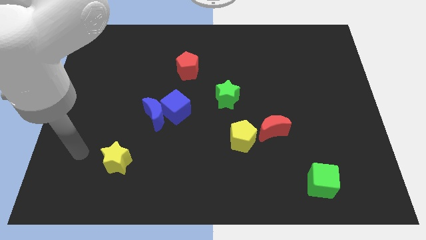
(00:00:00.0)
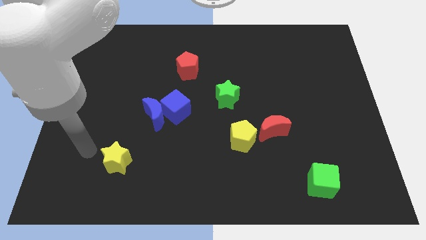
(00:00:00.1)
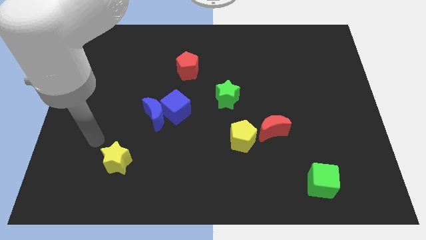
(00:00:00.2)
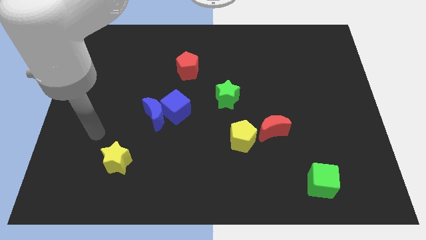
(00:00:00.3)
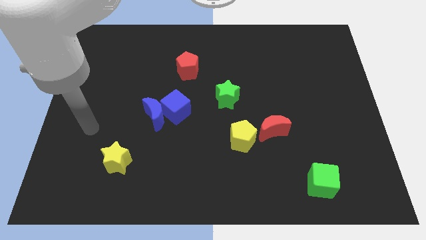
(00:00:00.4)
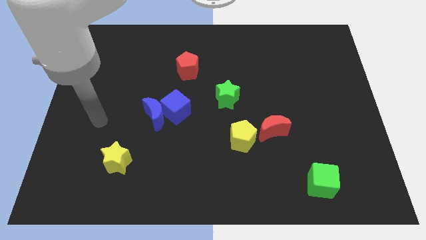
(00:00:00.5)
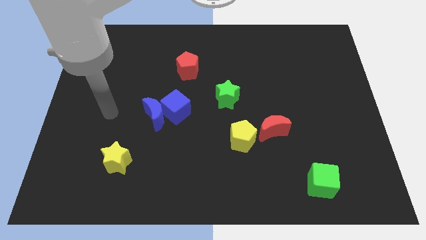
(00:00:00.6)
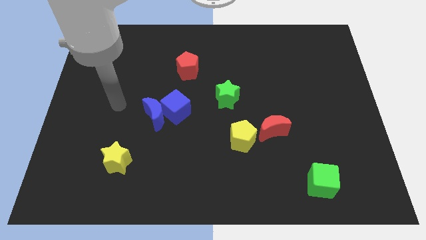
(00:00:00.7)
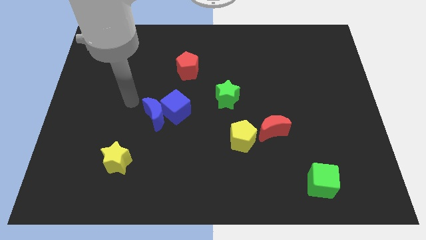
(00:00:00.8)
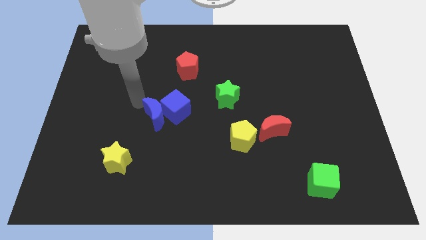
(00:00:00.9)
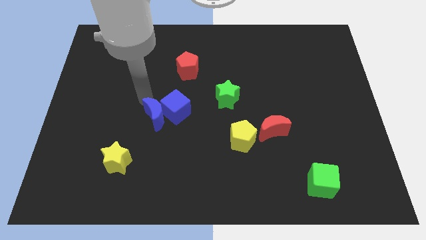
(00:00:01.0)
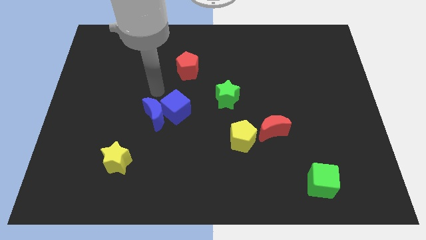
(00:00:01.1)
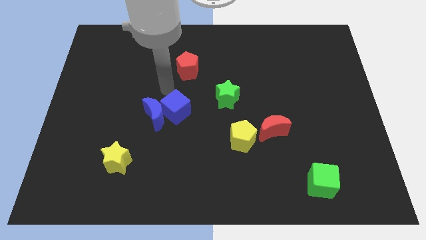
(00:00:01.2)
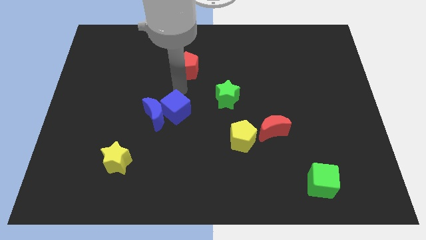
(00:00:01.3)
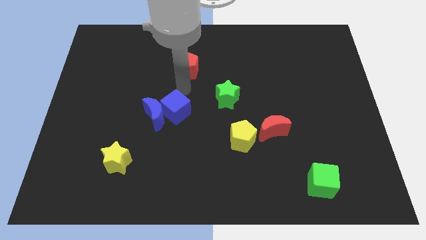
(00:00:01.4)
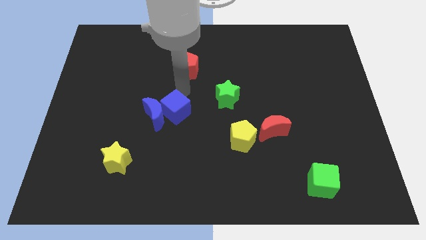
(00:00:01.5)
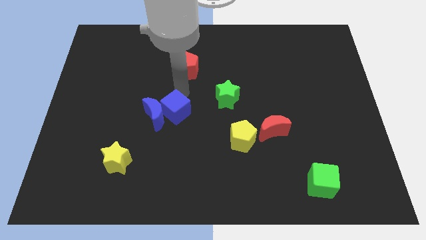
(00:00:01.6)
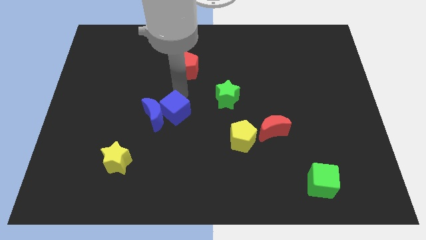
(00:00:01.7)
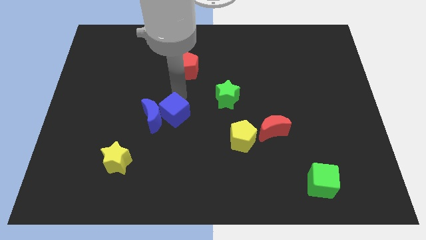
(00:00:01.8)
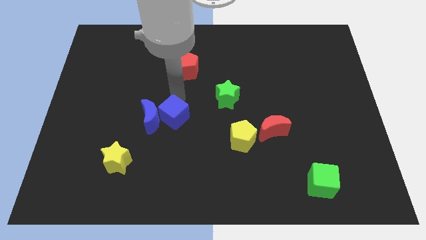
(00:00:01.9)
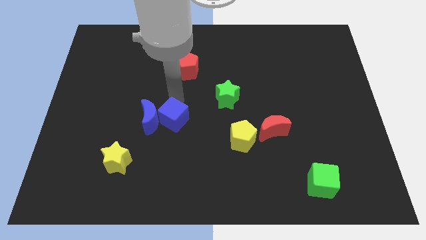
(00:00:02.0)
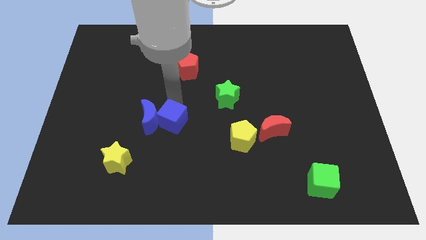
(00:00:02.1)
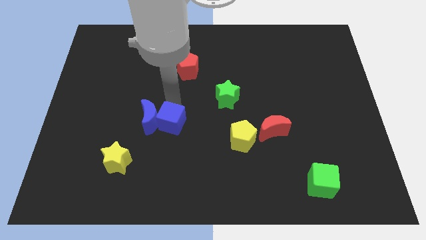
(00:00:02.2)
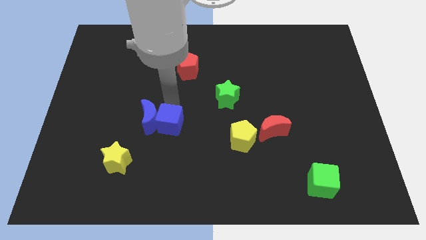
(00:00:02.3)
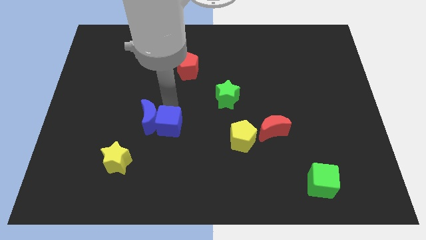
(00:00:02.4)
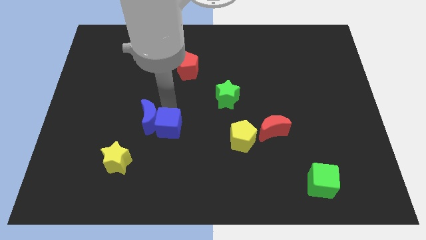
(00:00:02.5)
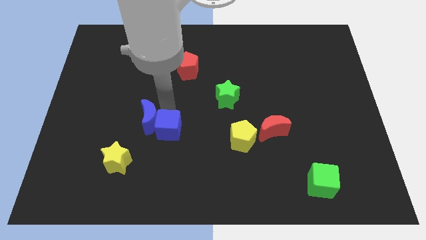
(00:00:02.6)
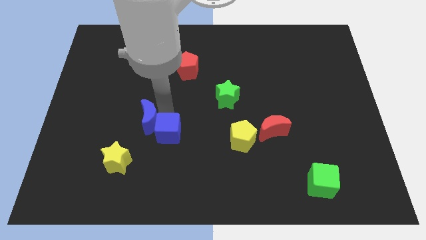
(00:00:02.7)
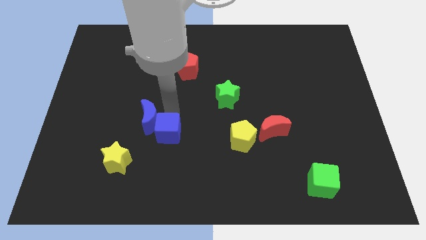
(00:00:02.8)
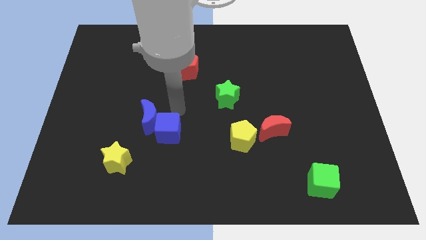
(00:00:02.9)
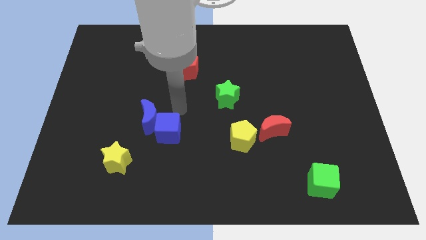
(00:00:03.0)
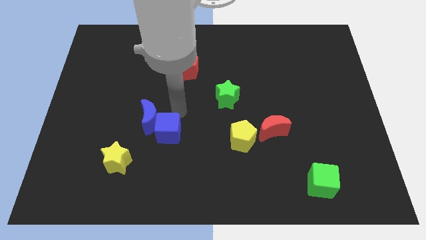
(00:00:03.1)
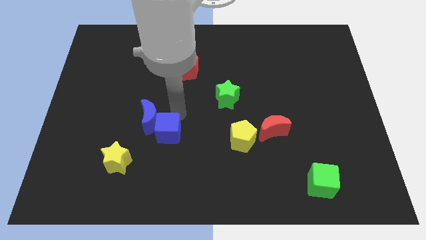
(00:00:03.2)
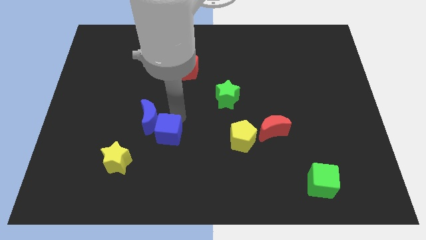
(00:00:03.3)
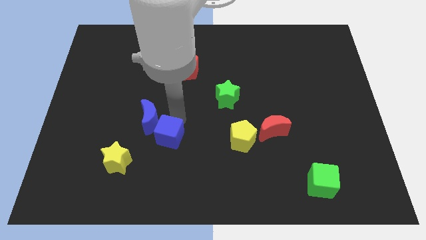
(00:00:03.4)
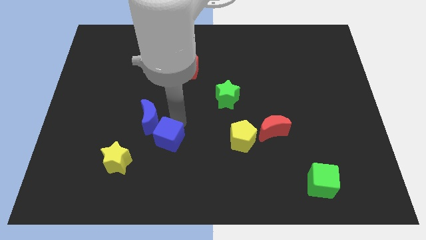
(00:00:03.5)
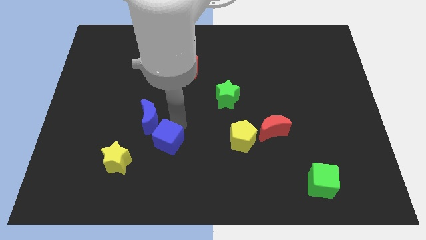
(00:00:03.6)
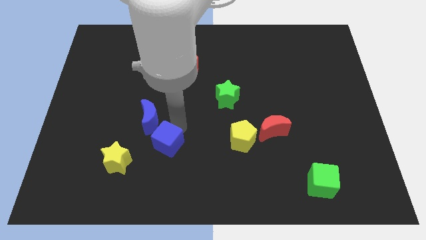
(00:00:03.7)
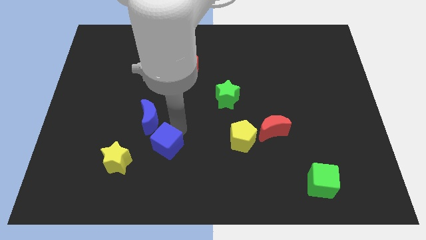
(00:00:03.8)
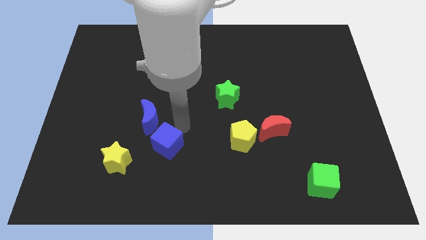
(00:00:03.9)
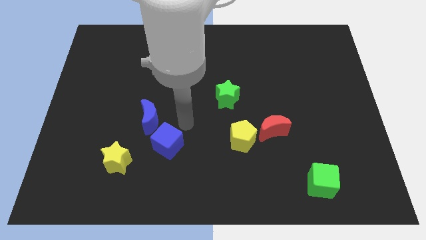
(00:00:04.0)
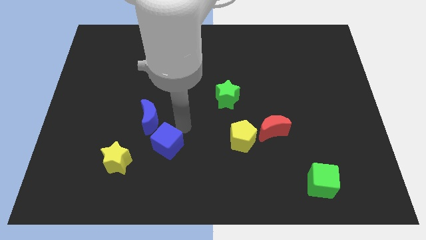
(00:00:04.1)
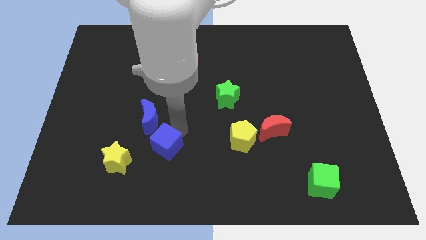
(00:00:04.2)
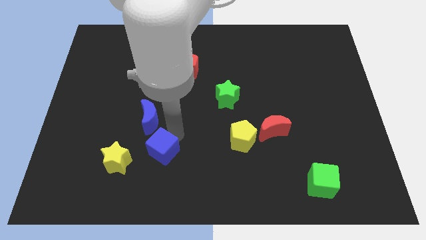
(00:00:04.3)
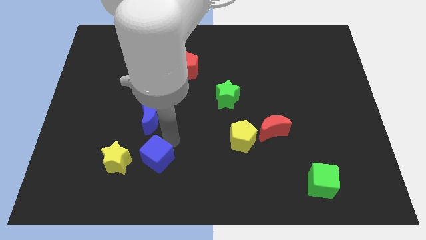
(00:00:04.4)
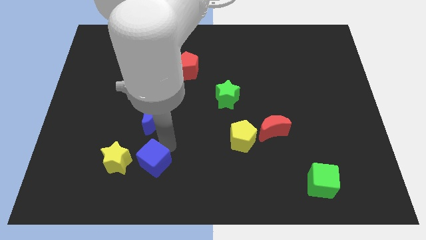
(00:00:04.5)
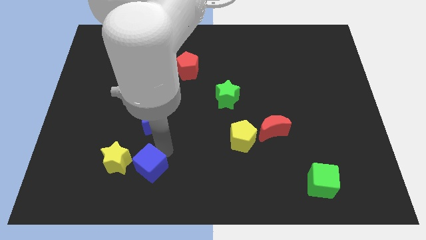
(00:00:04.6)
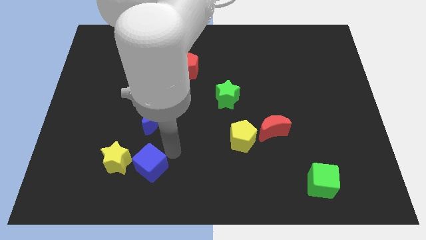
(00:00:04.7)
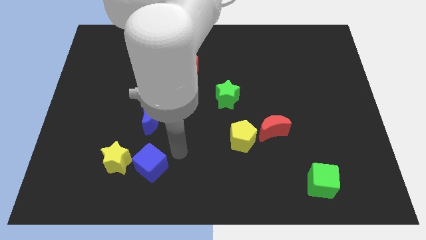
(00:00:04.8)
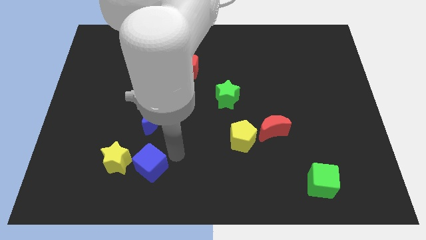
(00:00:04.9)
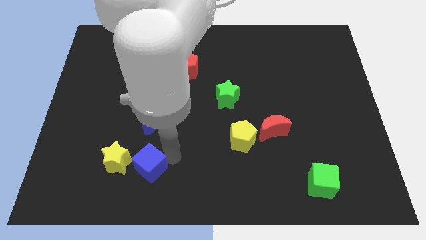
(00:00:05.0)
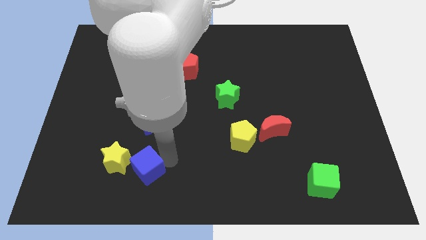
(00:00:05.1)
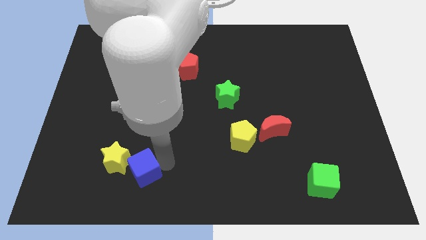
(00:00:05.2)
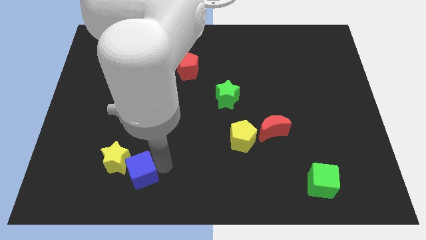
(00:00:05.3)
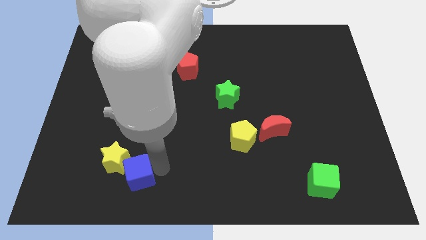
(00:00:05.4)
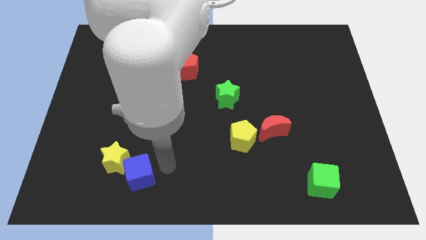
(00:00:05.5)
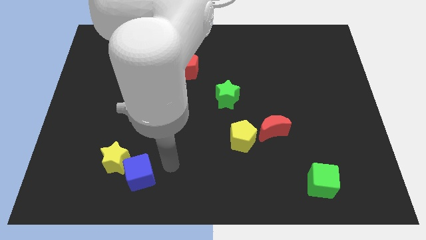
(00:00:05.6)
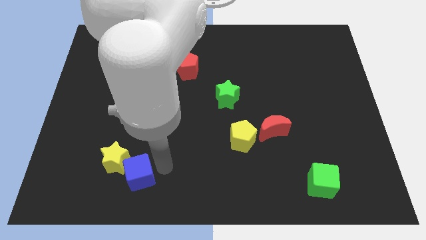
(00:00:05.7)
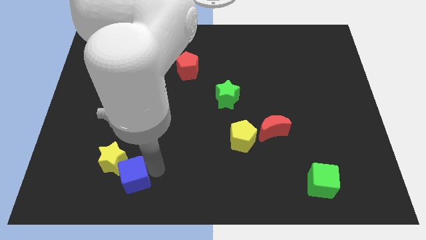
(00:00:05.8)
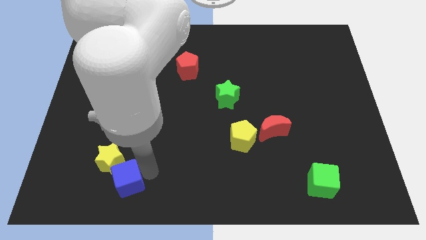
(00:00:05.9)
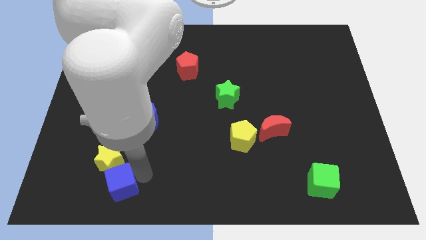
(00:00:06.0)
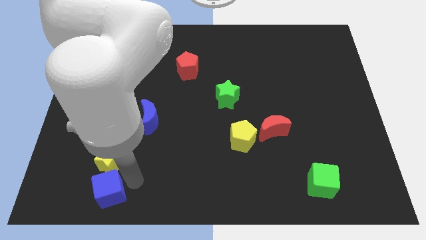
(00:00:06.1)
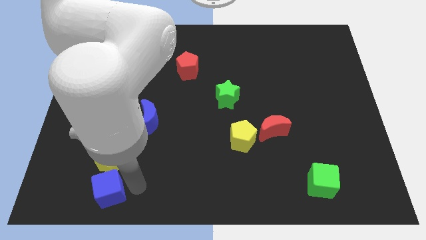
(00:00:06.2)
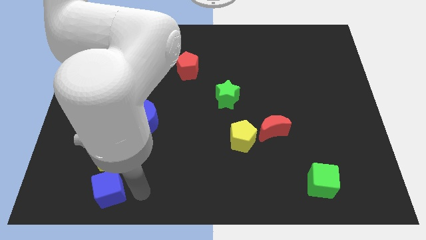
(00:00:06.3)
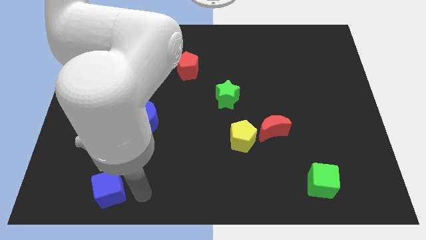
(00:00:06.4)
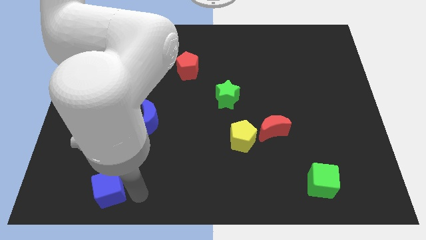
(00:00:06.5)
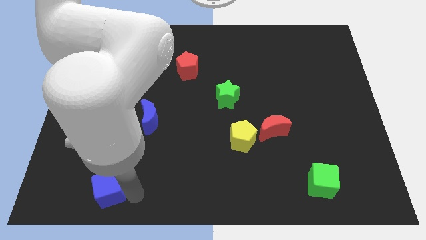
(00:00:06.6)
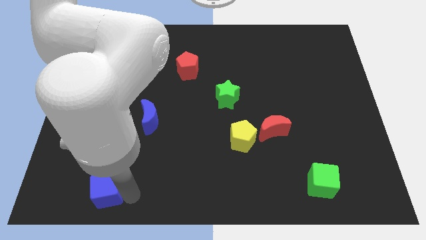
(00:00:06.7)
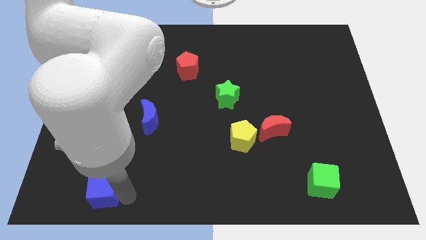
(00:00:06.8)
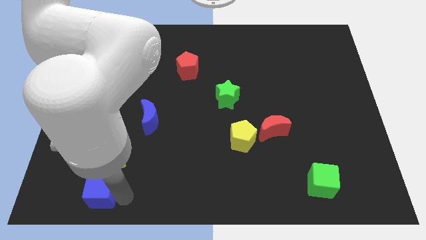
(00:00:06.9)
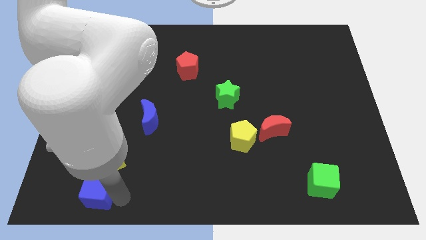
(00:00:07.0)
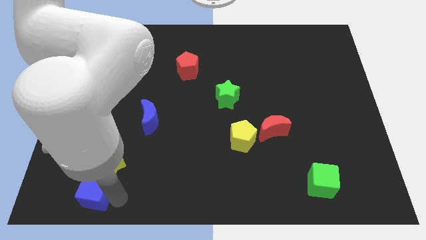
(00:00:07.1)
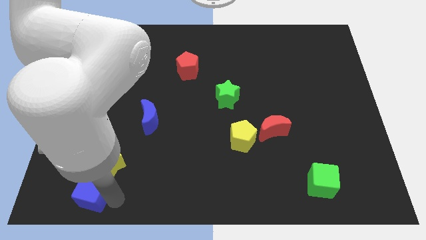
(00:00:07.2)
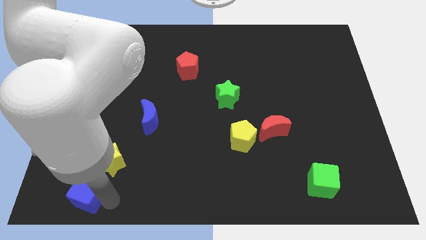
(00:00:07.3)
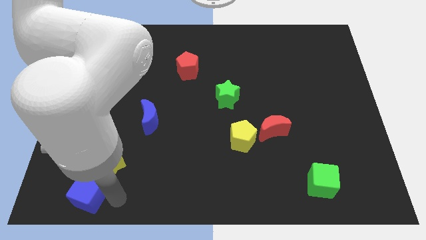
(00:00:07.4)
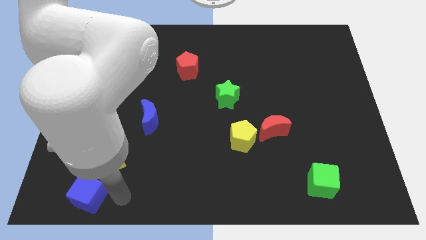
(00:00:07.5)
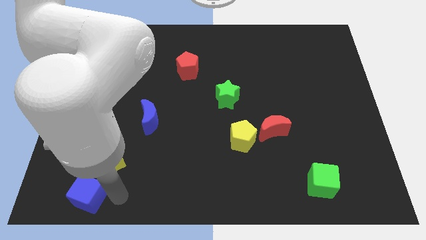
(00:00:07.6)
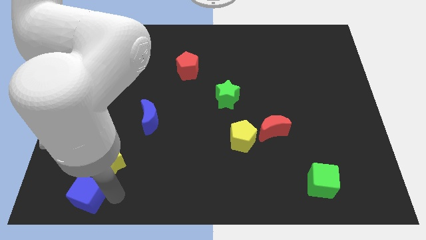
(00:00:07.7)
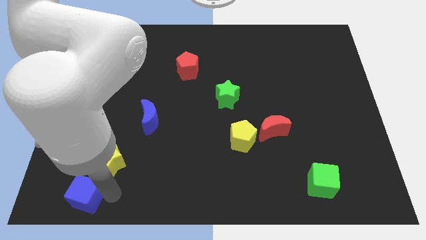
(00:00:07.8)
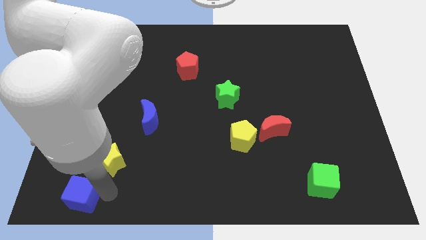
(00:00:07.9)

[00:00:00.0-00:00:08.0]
slide the blue cube to the bottom left corner

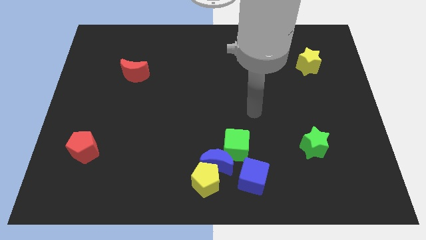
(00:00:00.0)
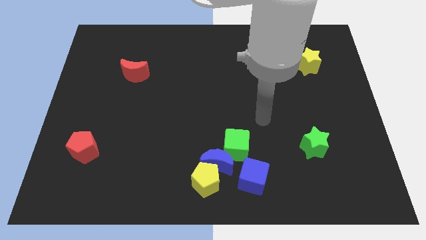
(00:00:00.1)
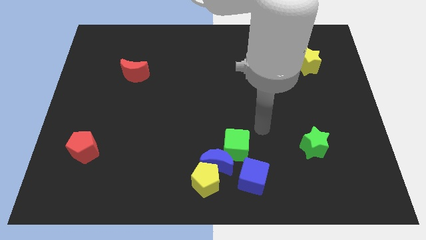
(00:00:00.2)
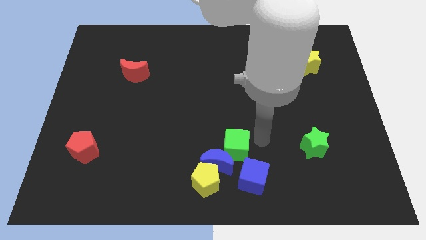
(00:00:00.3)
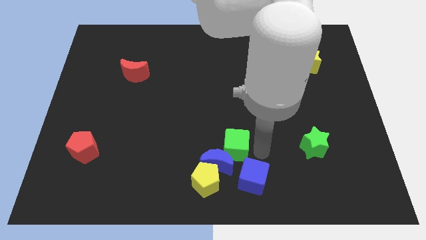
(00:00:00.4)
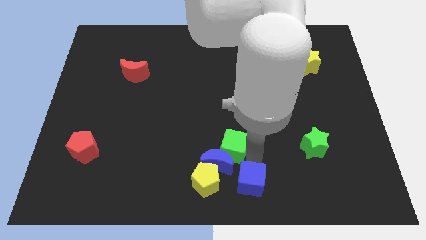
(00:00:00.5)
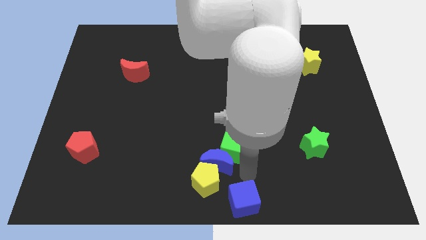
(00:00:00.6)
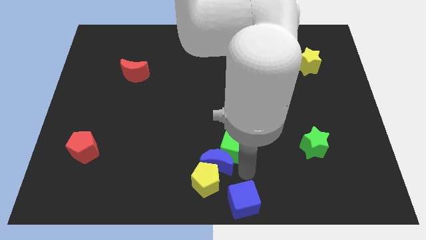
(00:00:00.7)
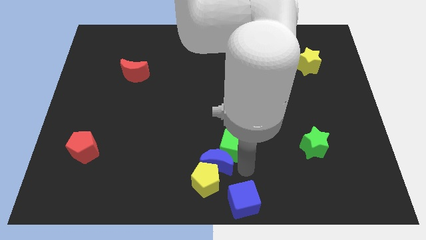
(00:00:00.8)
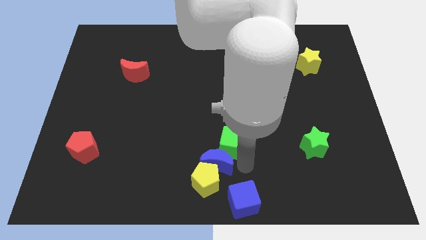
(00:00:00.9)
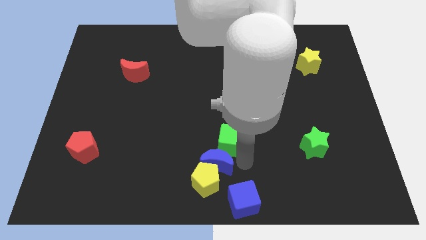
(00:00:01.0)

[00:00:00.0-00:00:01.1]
put the green cube to the middle
